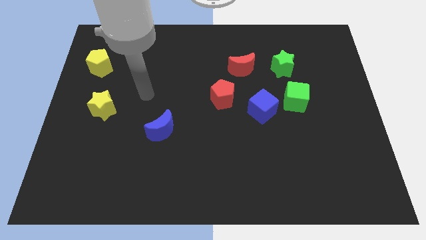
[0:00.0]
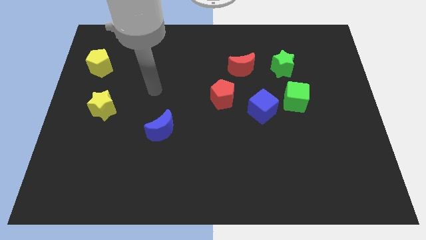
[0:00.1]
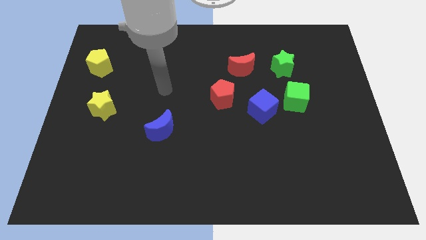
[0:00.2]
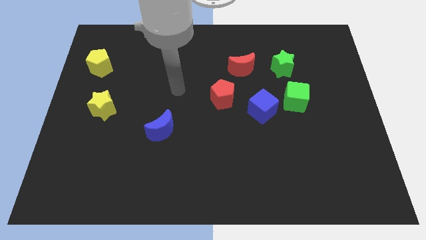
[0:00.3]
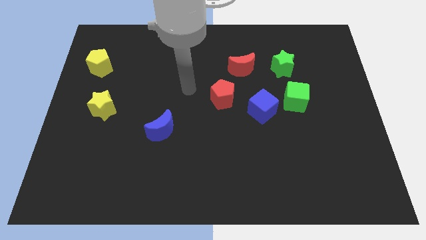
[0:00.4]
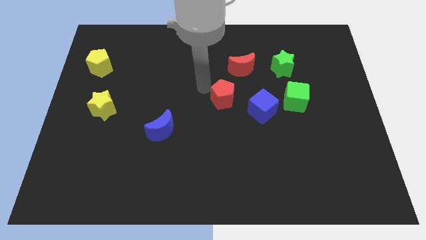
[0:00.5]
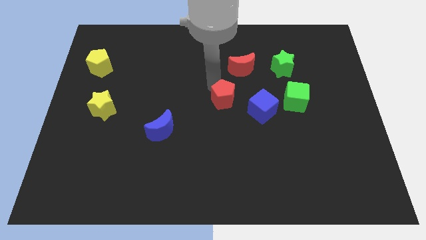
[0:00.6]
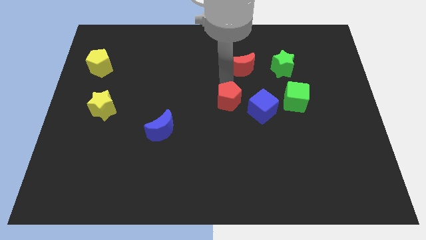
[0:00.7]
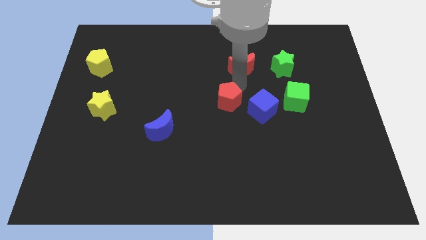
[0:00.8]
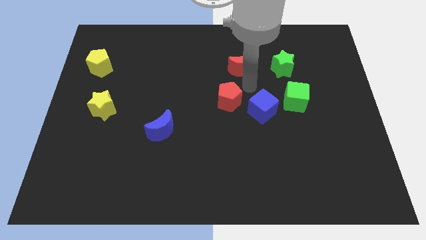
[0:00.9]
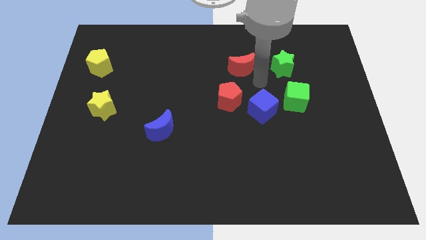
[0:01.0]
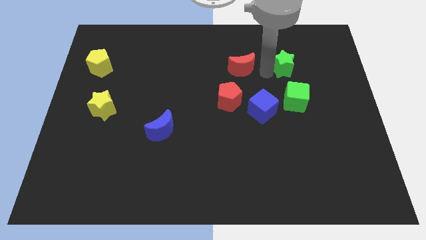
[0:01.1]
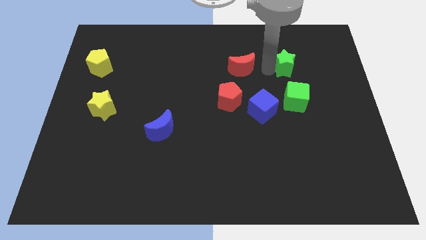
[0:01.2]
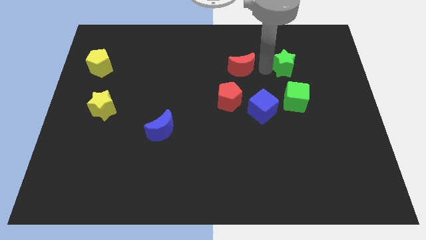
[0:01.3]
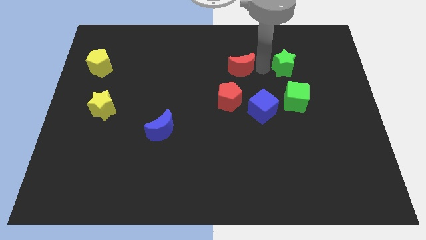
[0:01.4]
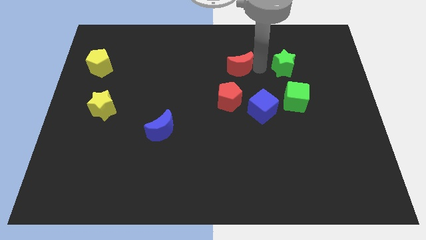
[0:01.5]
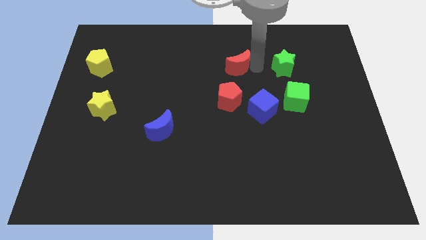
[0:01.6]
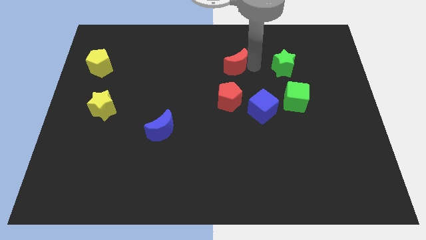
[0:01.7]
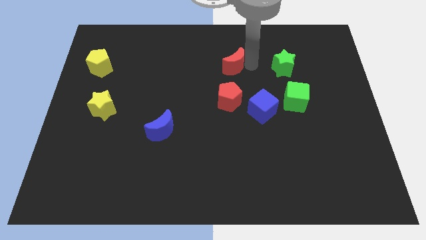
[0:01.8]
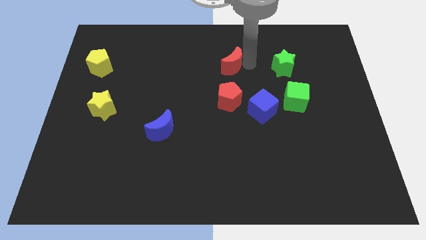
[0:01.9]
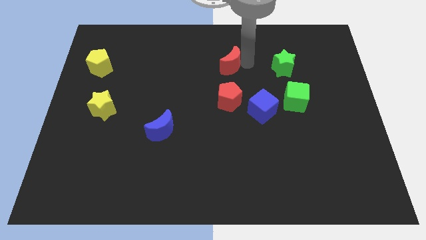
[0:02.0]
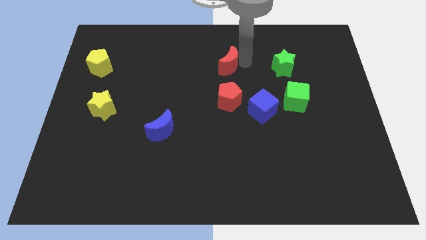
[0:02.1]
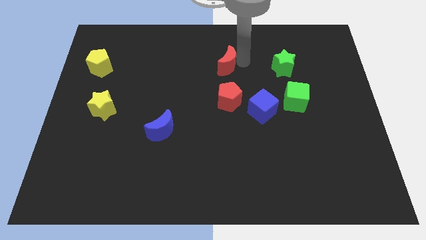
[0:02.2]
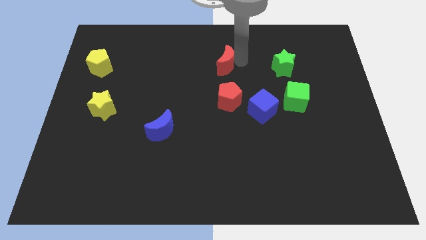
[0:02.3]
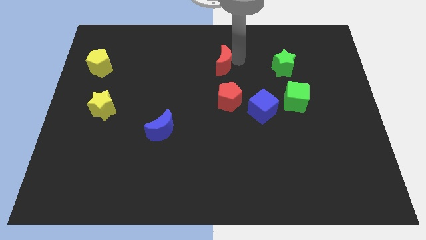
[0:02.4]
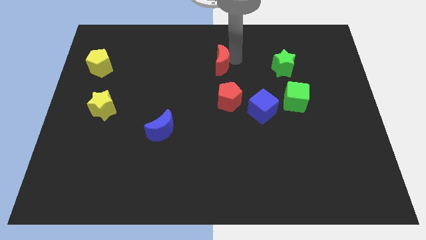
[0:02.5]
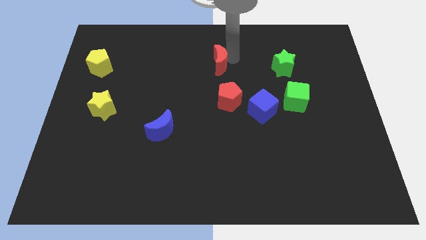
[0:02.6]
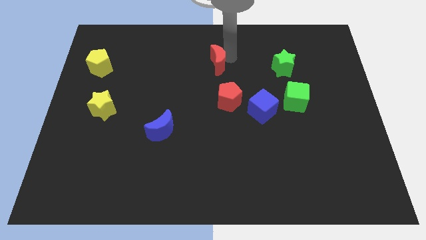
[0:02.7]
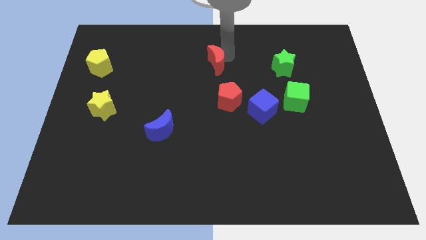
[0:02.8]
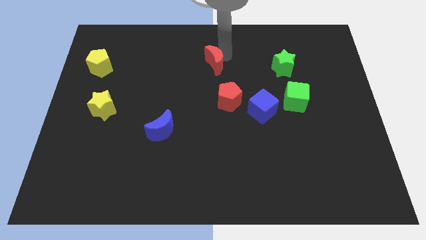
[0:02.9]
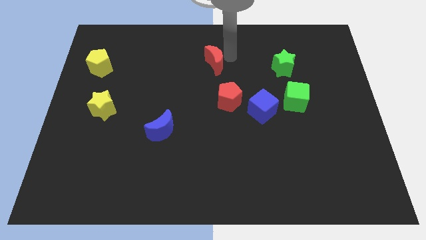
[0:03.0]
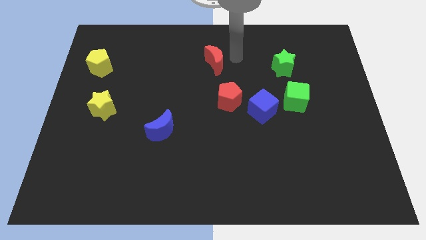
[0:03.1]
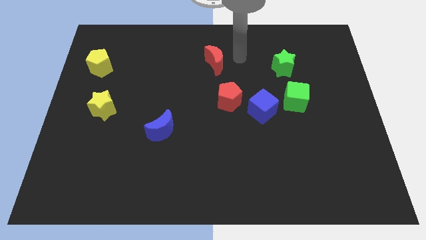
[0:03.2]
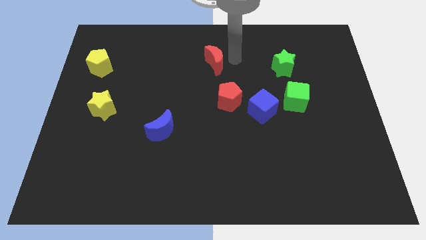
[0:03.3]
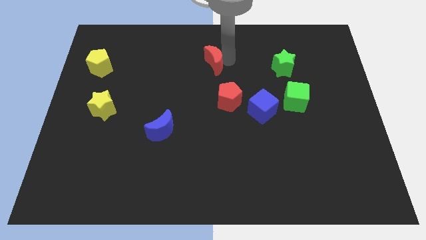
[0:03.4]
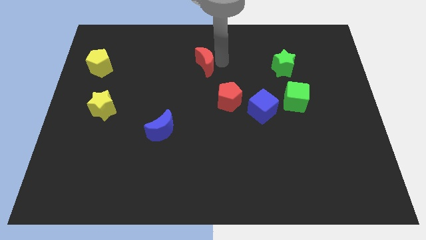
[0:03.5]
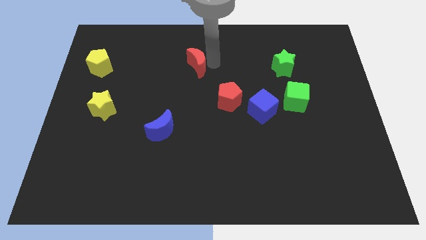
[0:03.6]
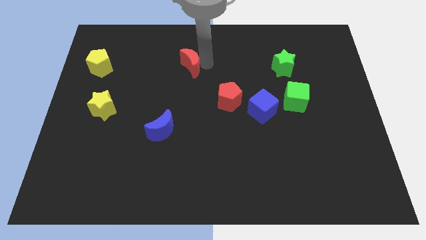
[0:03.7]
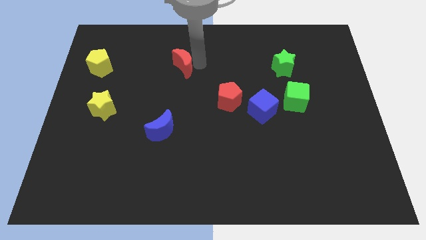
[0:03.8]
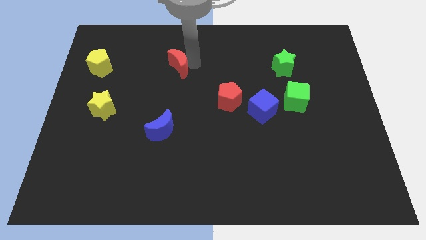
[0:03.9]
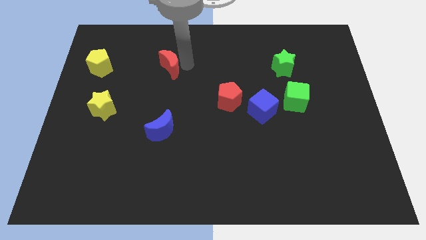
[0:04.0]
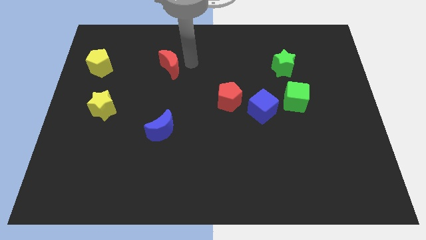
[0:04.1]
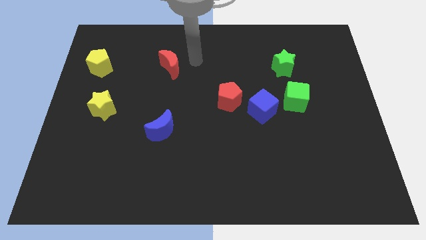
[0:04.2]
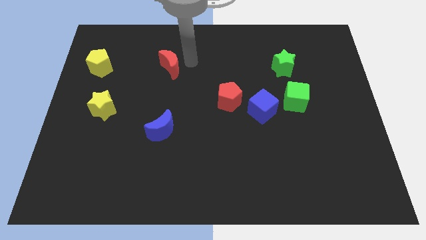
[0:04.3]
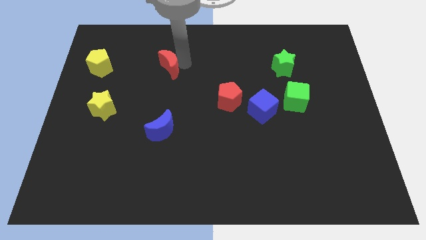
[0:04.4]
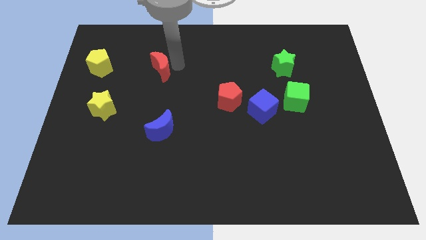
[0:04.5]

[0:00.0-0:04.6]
move the red moon to the left

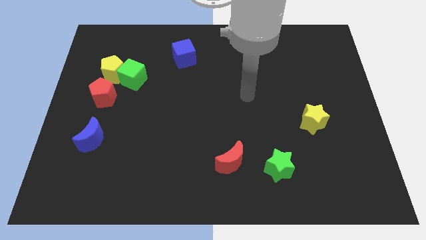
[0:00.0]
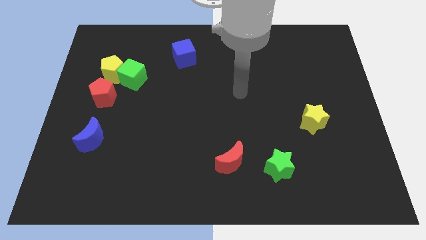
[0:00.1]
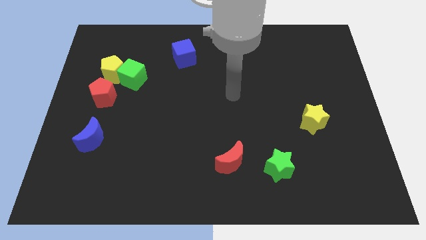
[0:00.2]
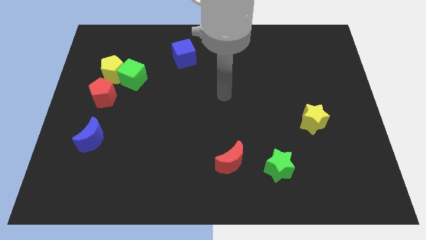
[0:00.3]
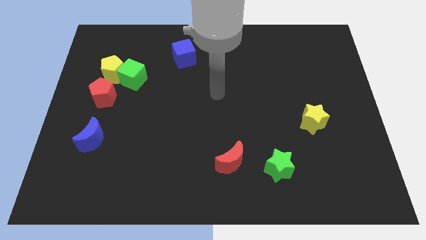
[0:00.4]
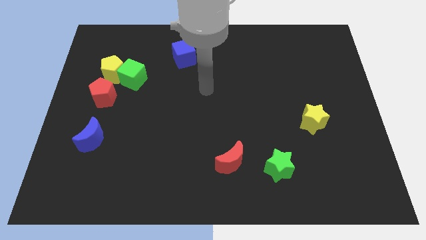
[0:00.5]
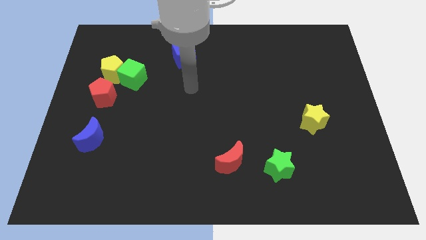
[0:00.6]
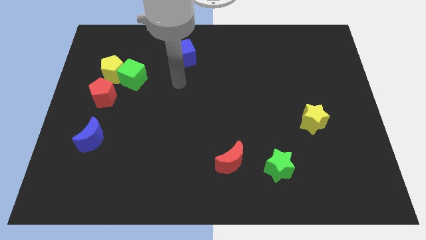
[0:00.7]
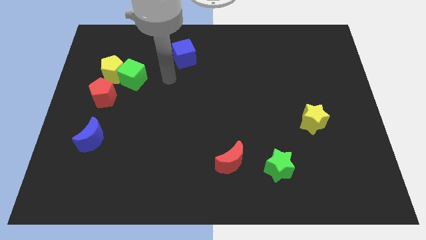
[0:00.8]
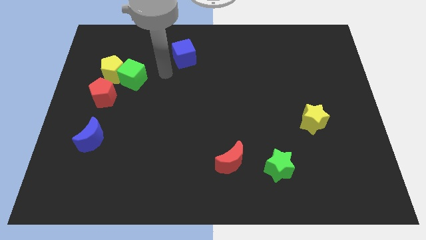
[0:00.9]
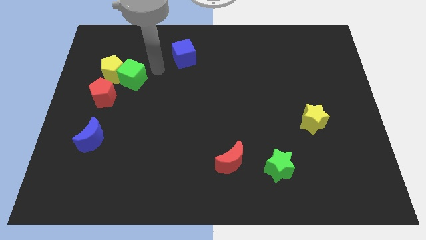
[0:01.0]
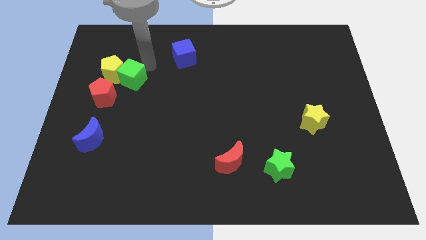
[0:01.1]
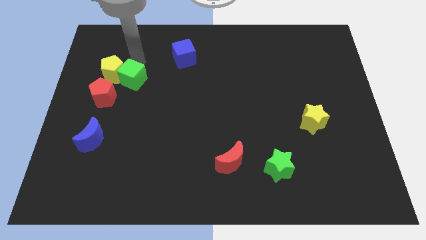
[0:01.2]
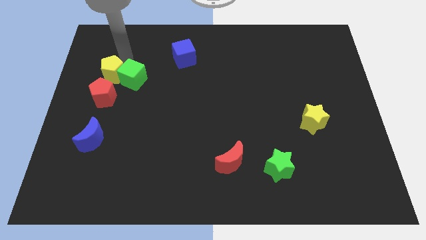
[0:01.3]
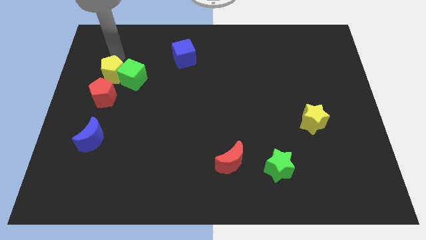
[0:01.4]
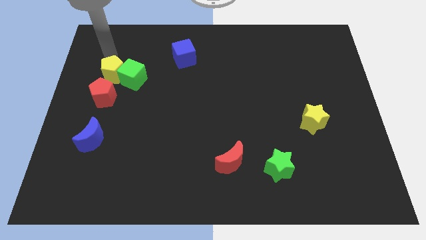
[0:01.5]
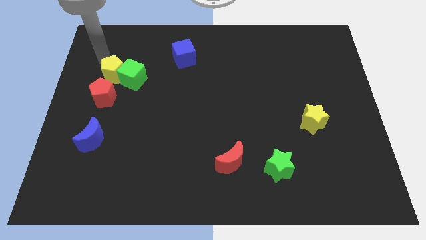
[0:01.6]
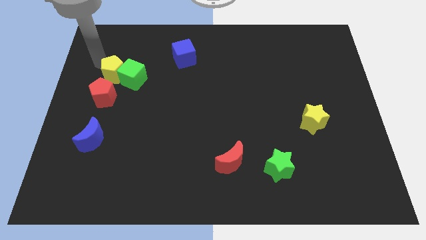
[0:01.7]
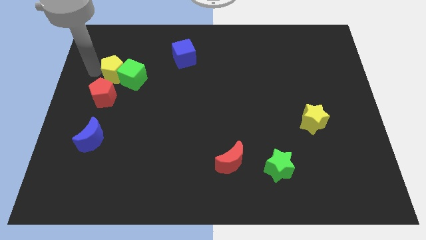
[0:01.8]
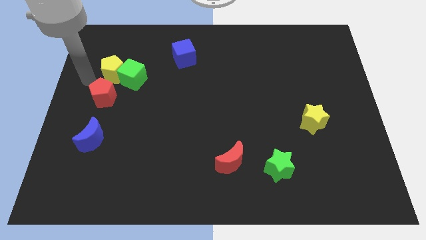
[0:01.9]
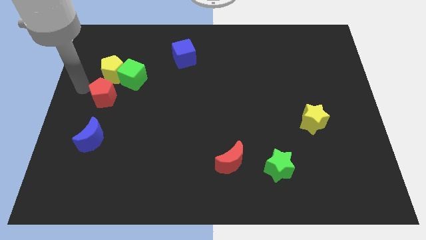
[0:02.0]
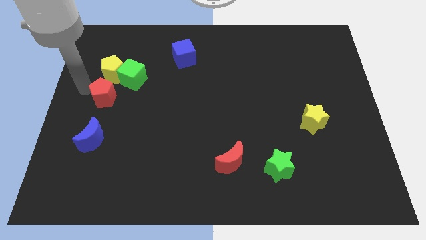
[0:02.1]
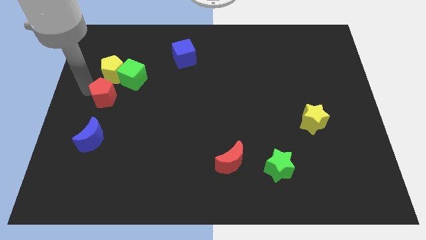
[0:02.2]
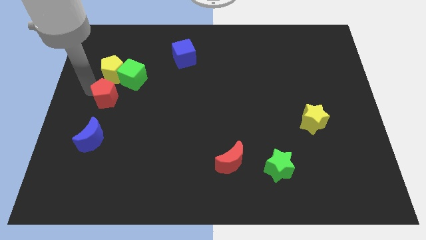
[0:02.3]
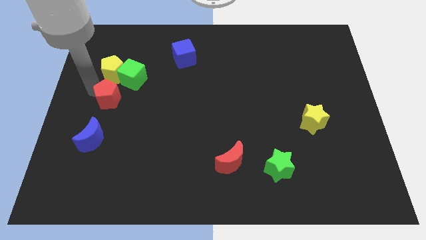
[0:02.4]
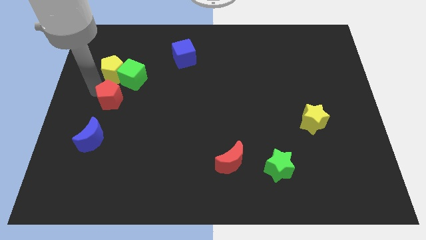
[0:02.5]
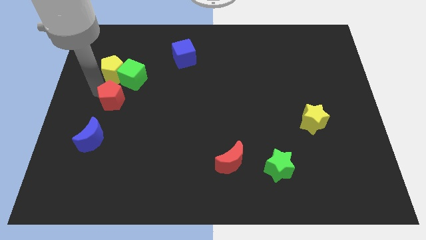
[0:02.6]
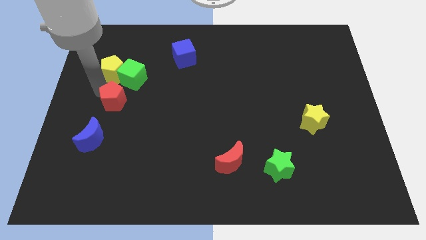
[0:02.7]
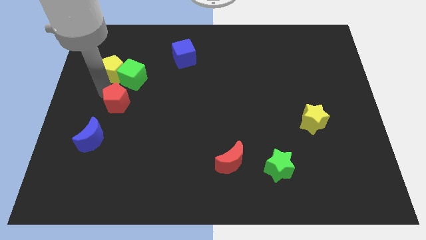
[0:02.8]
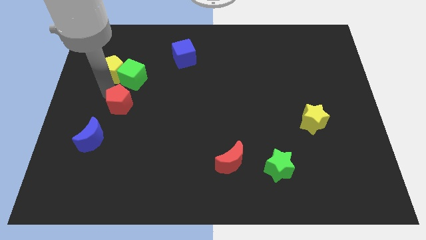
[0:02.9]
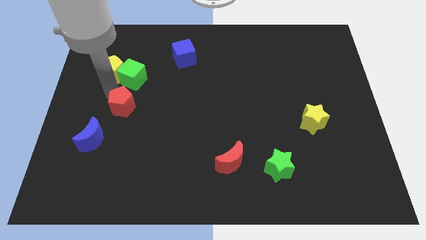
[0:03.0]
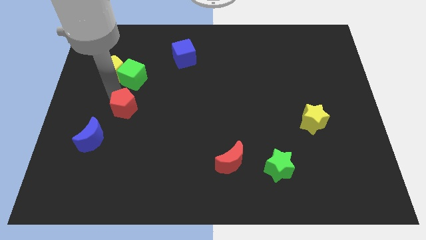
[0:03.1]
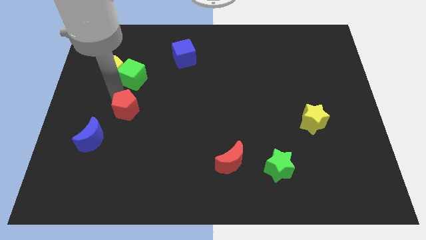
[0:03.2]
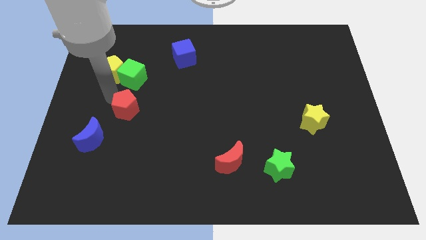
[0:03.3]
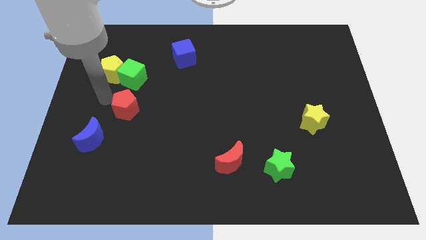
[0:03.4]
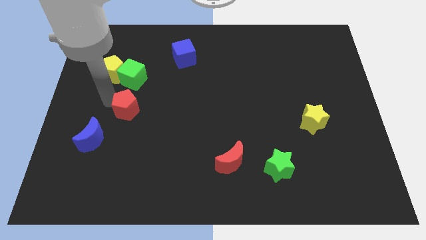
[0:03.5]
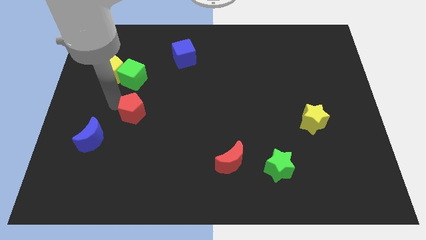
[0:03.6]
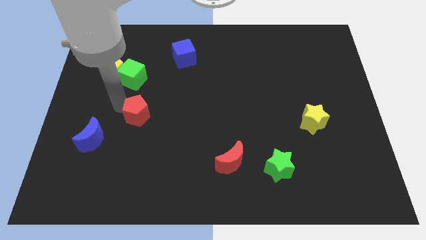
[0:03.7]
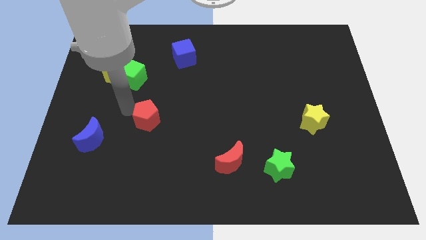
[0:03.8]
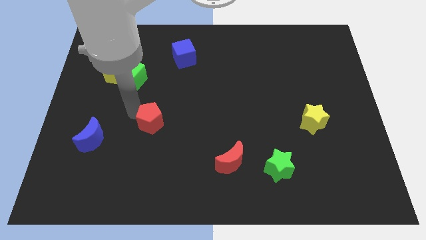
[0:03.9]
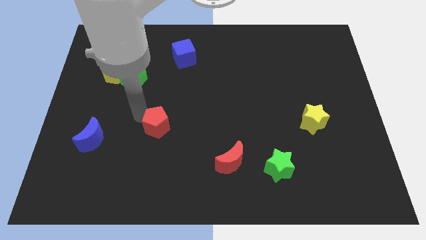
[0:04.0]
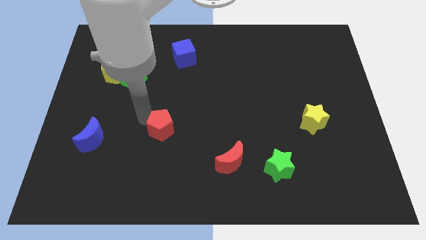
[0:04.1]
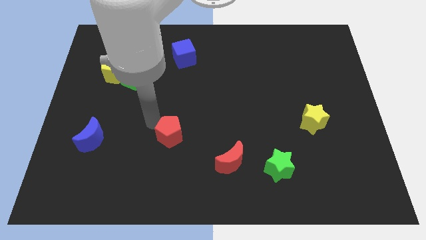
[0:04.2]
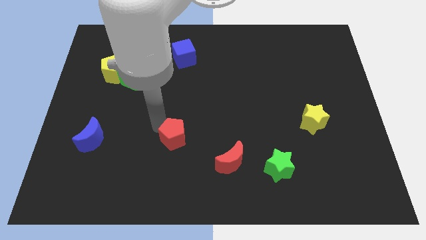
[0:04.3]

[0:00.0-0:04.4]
move the red pentagon downwards and right diagonally
